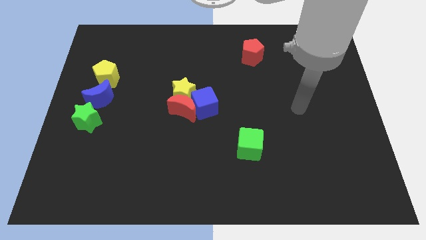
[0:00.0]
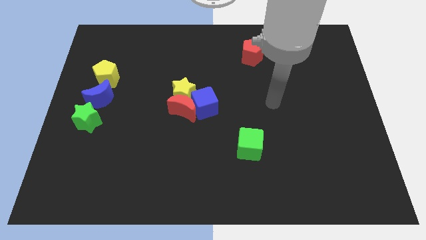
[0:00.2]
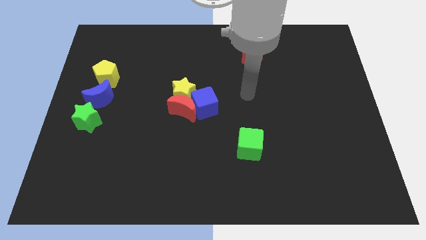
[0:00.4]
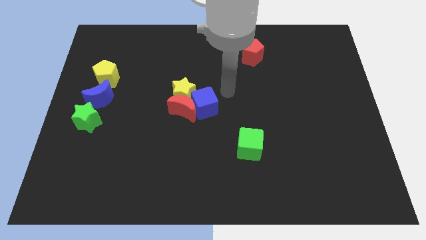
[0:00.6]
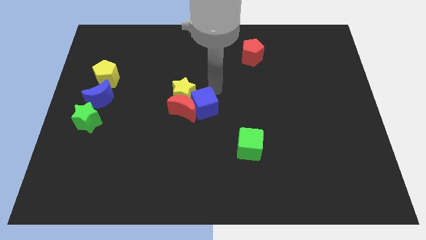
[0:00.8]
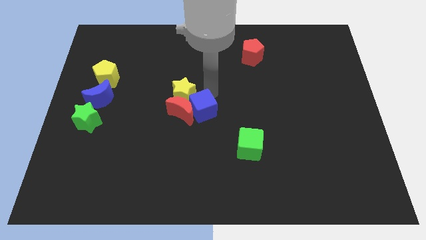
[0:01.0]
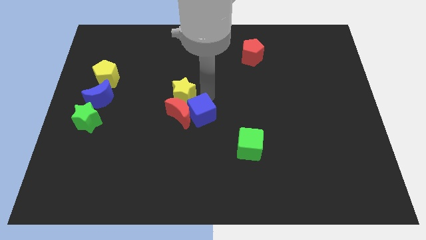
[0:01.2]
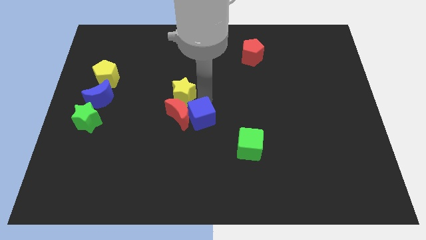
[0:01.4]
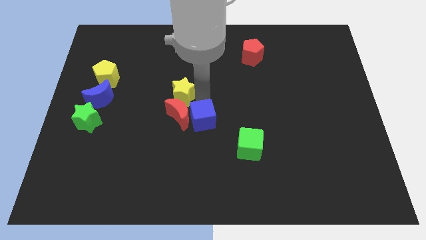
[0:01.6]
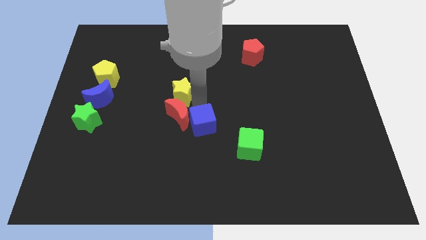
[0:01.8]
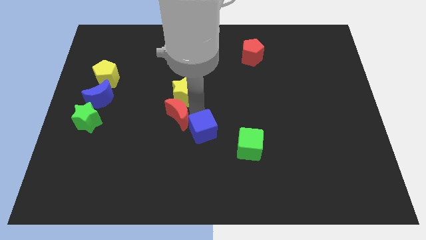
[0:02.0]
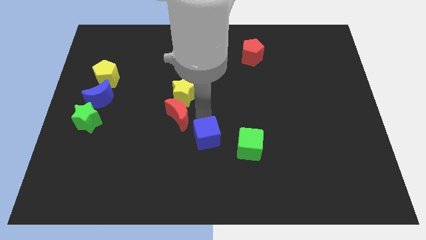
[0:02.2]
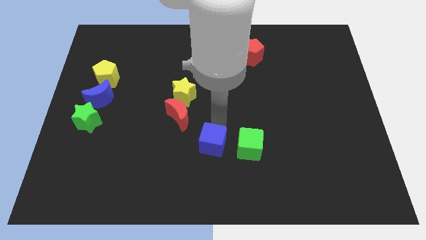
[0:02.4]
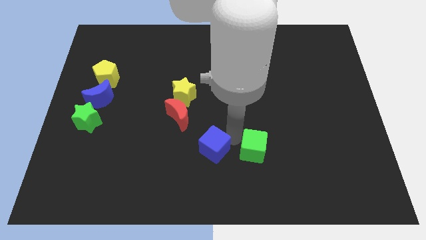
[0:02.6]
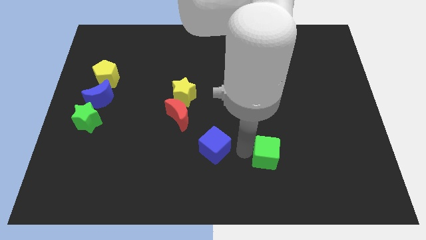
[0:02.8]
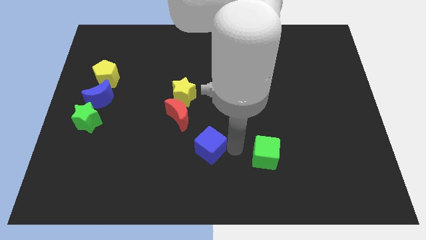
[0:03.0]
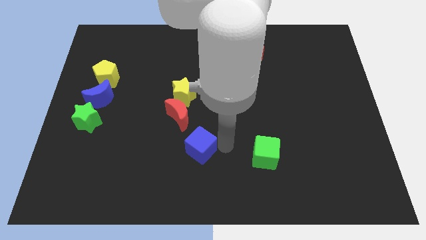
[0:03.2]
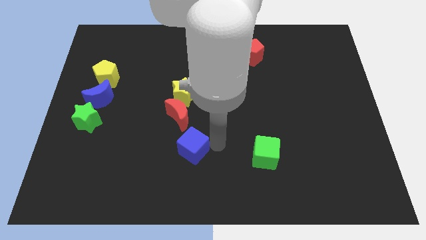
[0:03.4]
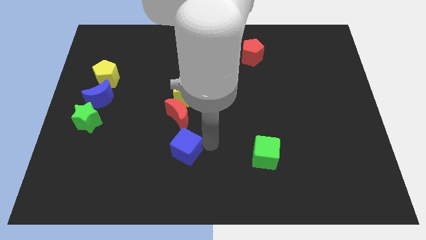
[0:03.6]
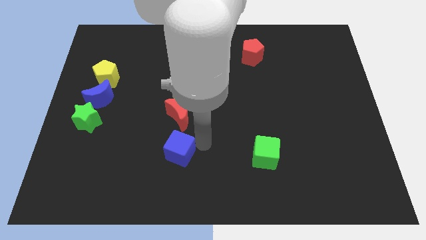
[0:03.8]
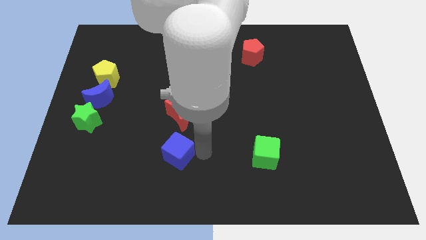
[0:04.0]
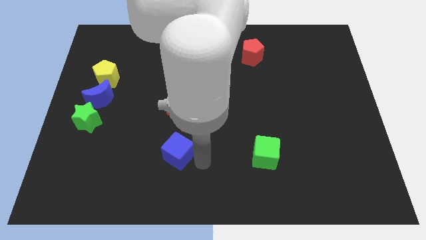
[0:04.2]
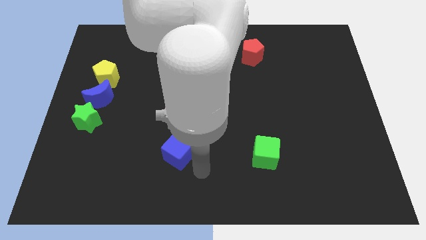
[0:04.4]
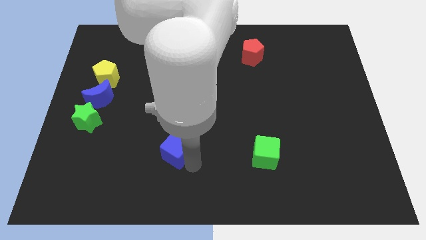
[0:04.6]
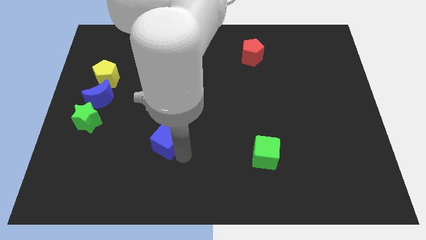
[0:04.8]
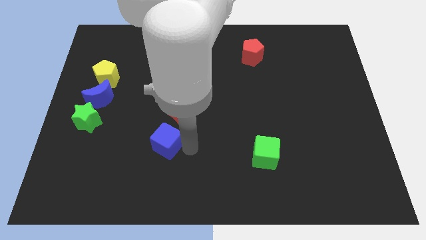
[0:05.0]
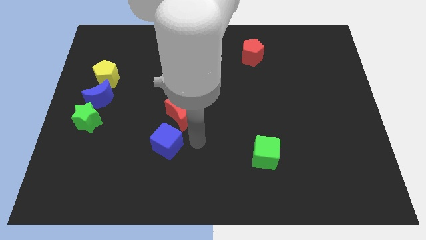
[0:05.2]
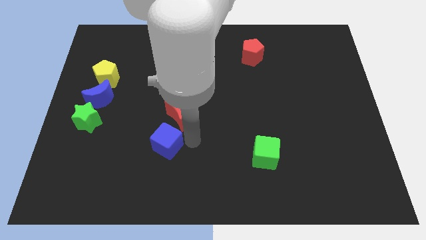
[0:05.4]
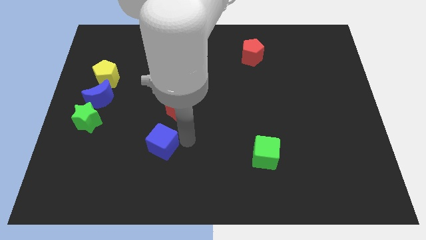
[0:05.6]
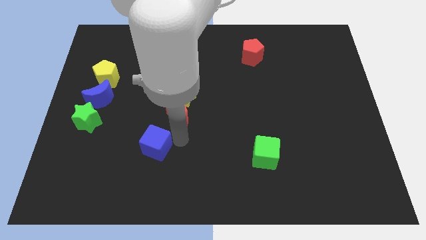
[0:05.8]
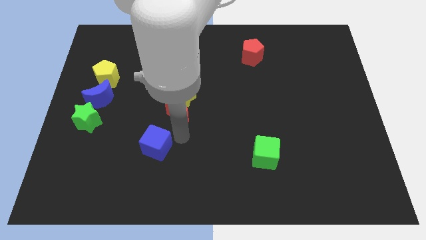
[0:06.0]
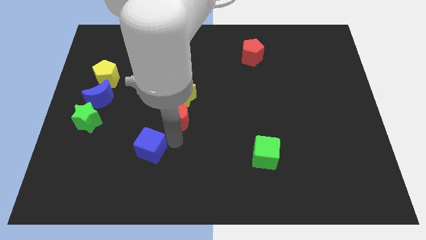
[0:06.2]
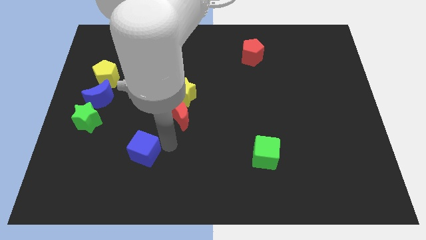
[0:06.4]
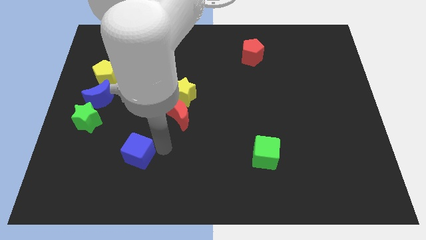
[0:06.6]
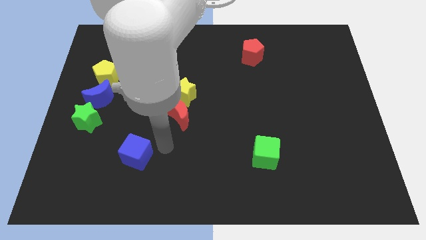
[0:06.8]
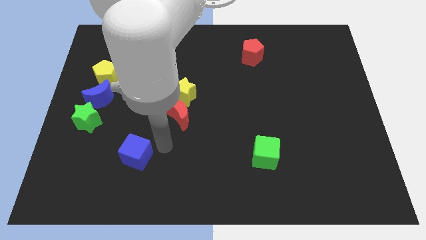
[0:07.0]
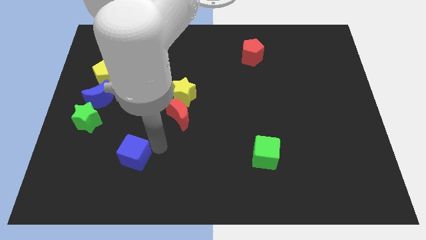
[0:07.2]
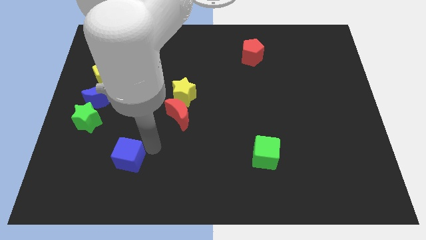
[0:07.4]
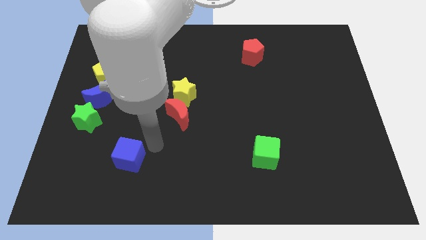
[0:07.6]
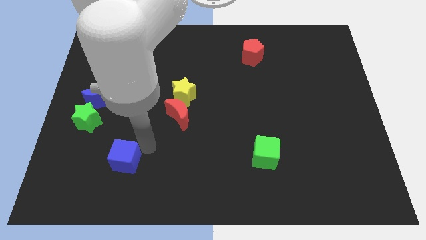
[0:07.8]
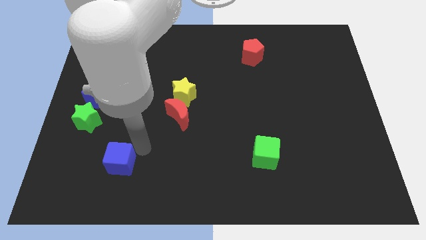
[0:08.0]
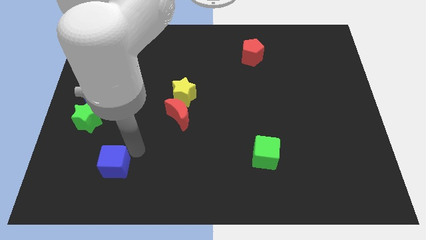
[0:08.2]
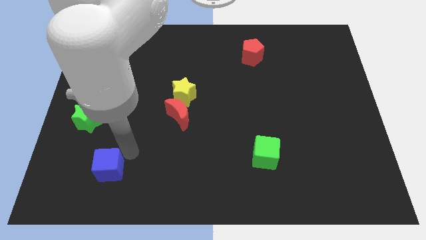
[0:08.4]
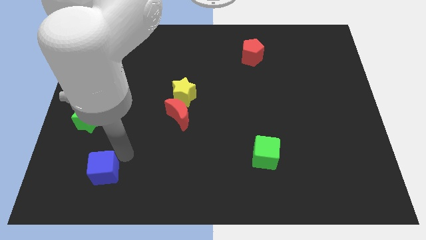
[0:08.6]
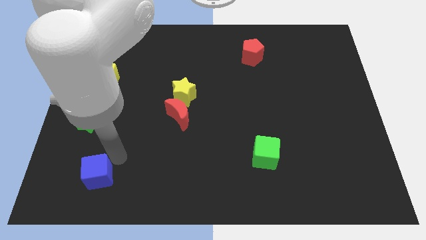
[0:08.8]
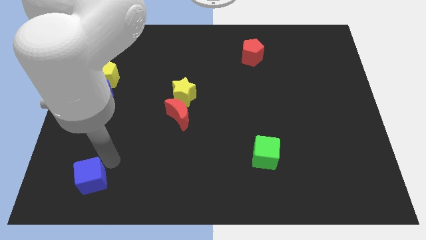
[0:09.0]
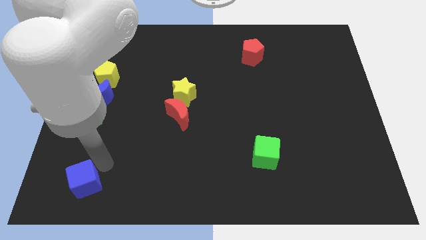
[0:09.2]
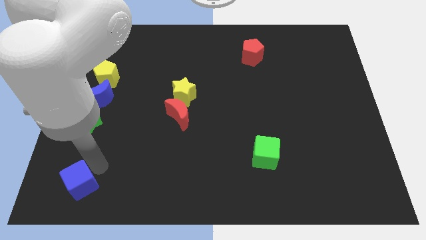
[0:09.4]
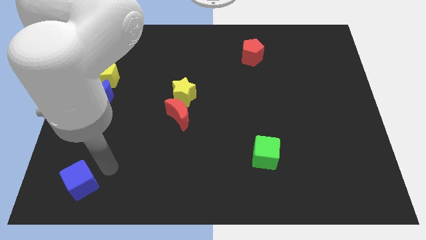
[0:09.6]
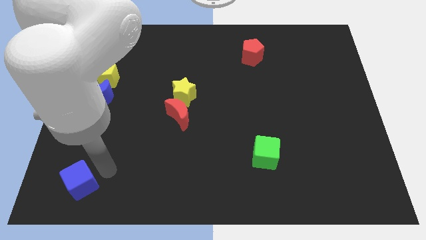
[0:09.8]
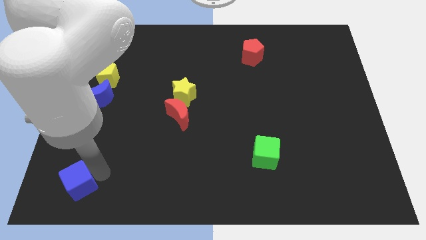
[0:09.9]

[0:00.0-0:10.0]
put the blue cube to the bottom left corner
